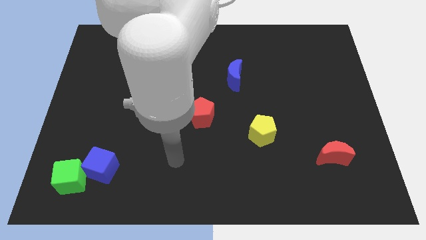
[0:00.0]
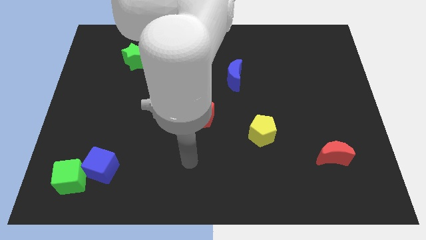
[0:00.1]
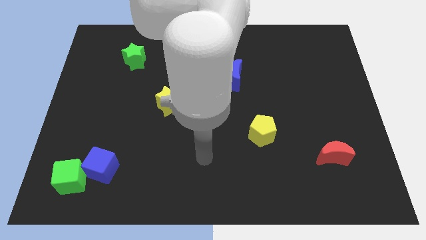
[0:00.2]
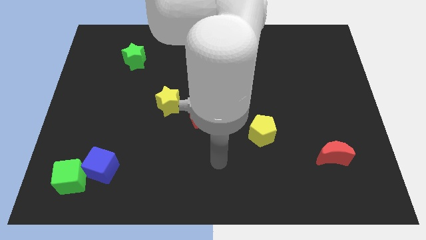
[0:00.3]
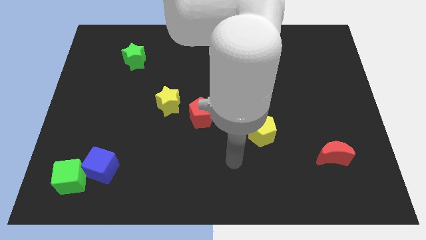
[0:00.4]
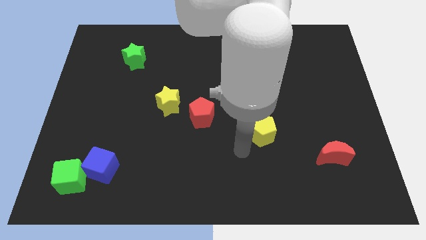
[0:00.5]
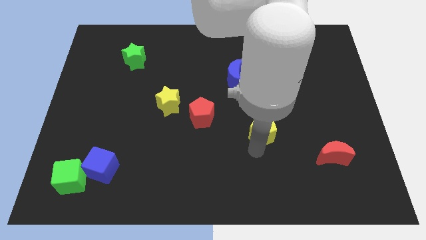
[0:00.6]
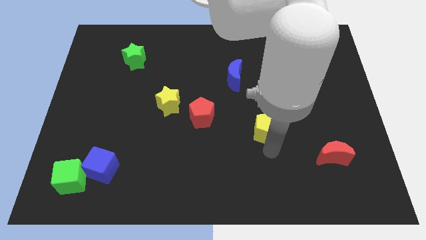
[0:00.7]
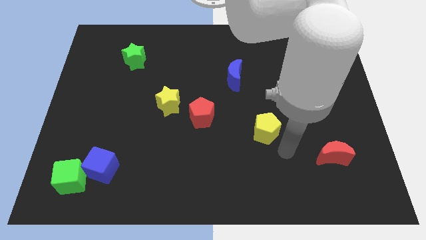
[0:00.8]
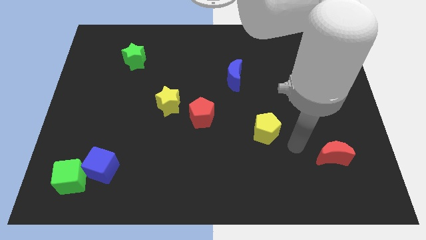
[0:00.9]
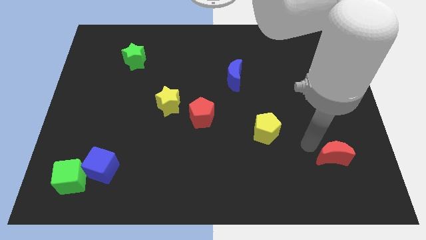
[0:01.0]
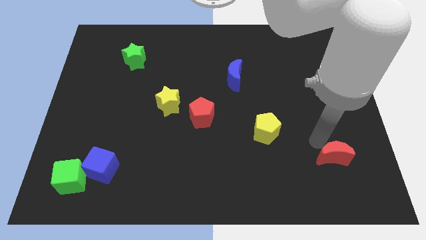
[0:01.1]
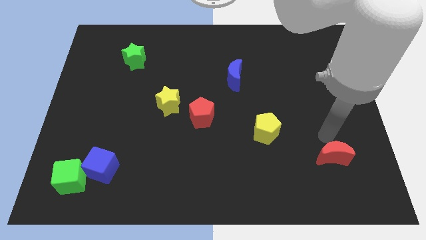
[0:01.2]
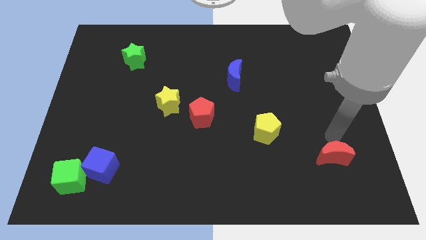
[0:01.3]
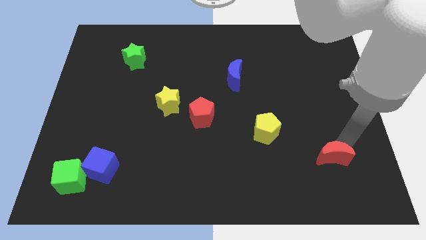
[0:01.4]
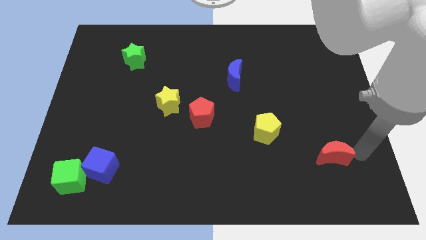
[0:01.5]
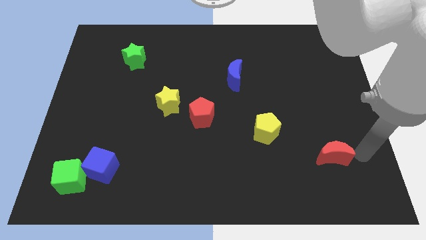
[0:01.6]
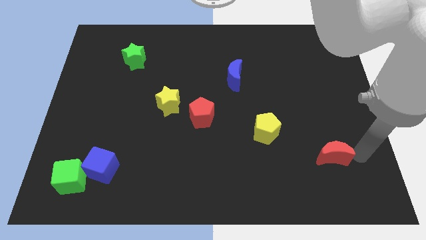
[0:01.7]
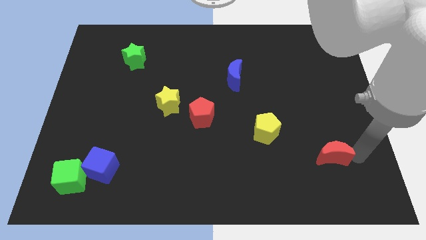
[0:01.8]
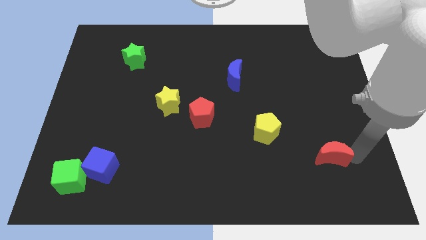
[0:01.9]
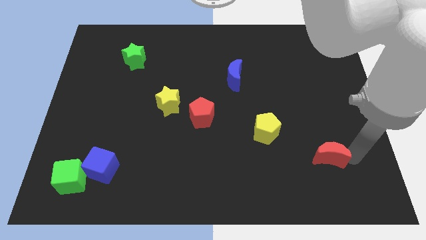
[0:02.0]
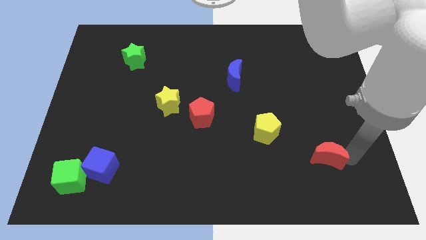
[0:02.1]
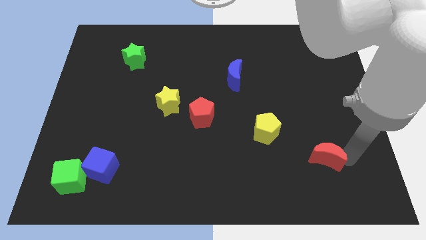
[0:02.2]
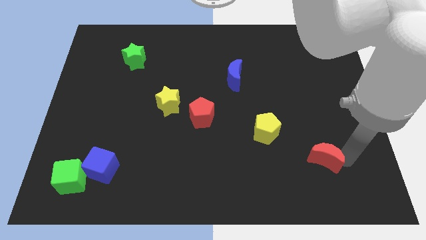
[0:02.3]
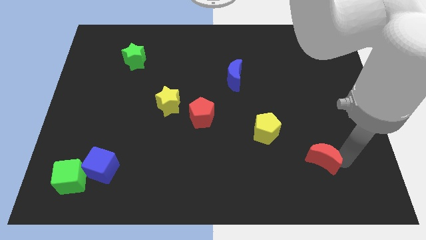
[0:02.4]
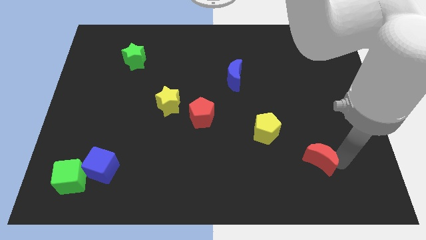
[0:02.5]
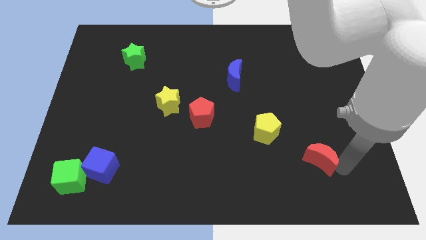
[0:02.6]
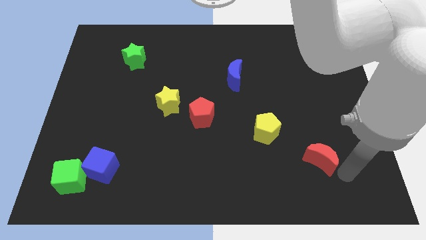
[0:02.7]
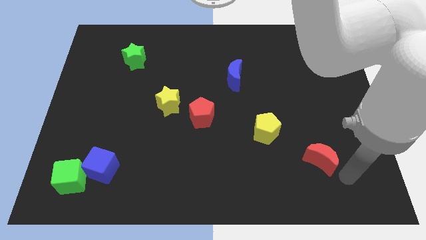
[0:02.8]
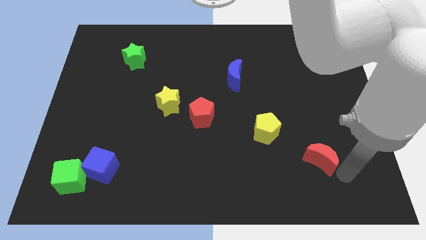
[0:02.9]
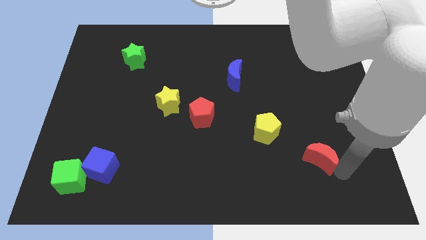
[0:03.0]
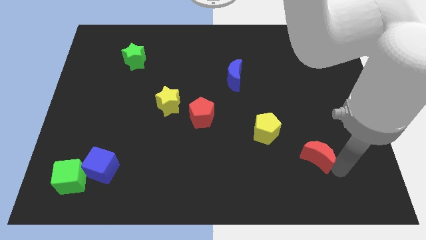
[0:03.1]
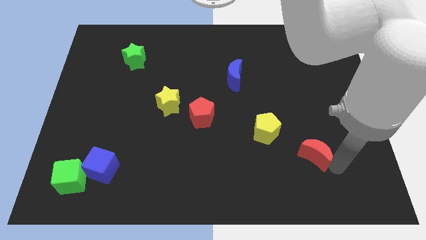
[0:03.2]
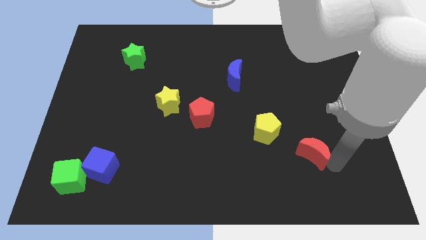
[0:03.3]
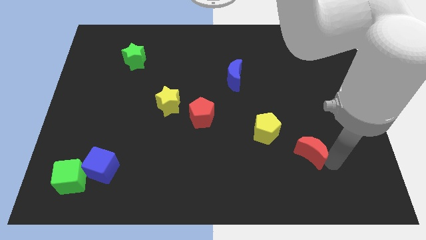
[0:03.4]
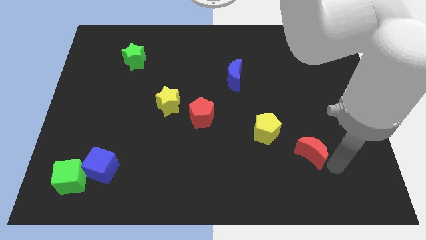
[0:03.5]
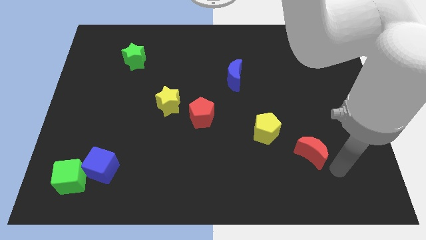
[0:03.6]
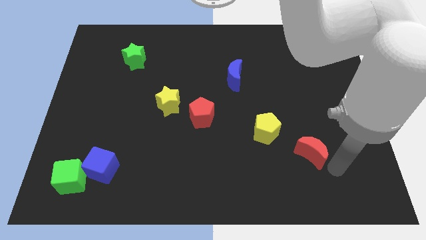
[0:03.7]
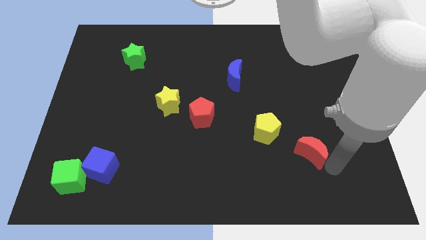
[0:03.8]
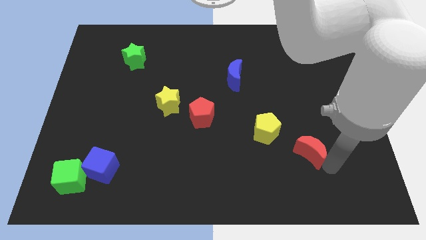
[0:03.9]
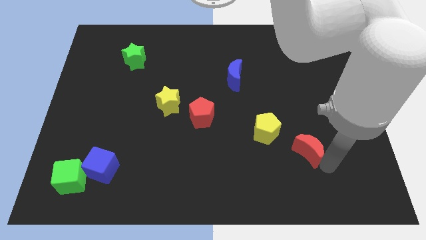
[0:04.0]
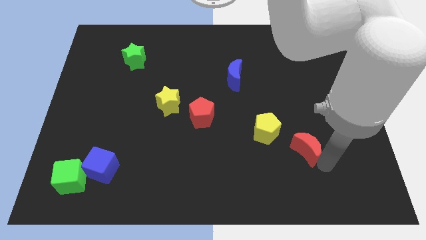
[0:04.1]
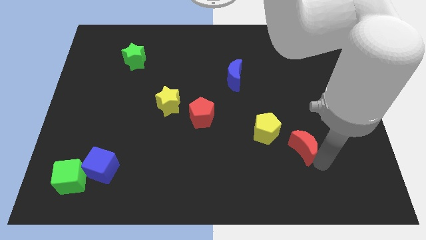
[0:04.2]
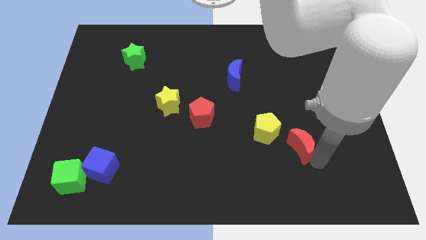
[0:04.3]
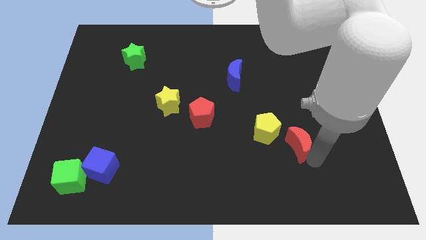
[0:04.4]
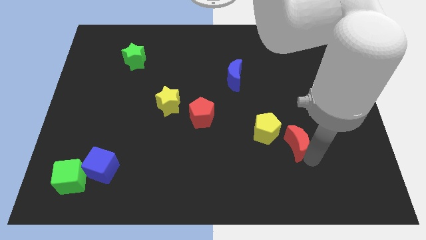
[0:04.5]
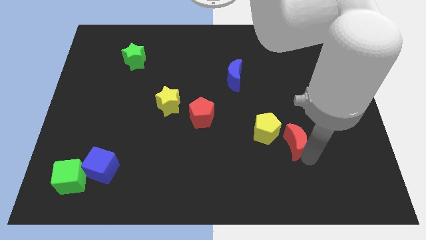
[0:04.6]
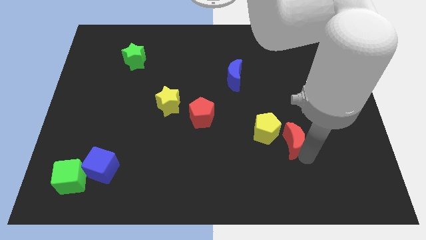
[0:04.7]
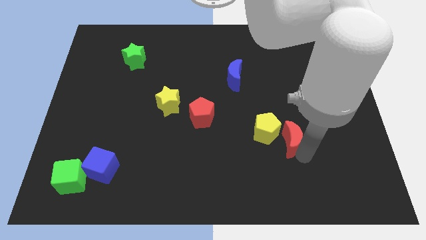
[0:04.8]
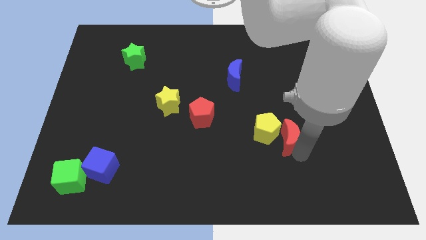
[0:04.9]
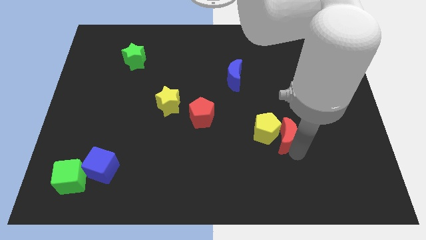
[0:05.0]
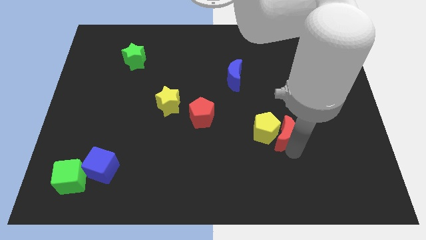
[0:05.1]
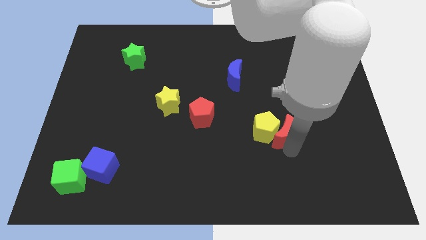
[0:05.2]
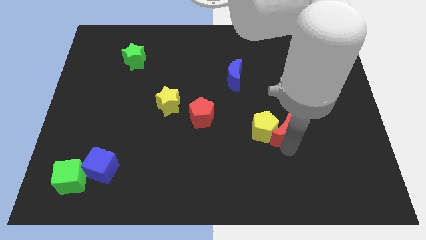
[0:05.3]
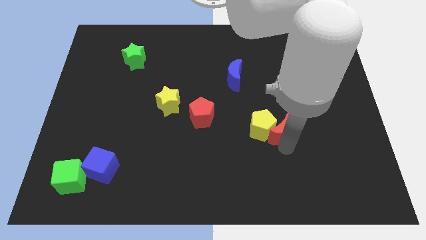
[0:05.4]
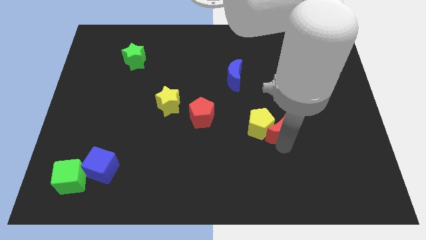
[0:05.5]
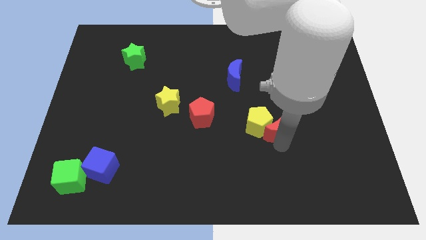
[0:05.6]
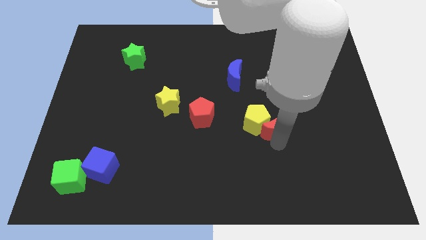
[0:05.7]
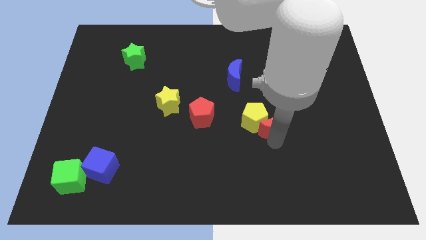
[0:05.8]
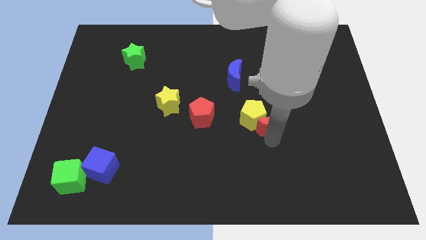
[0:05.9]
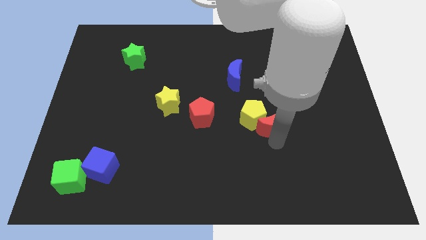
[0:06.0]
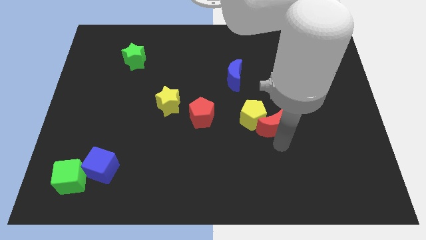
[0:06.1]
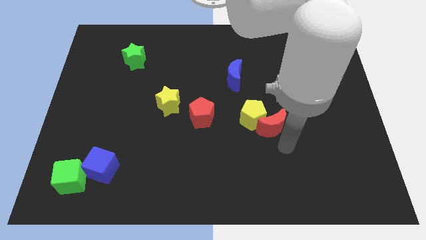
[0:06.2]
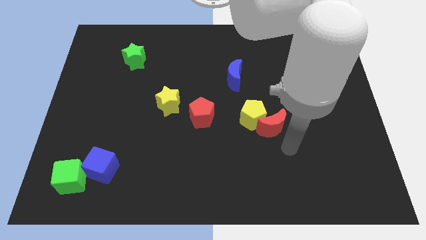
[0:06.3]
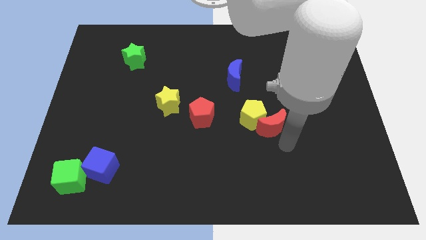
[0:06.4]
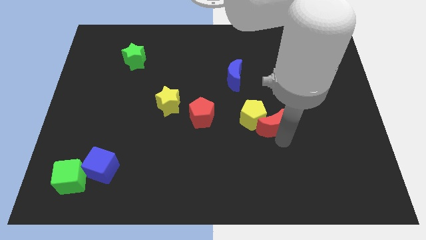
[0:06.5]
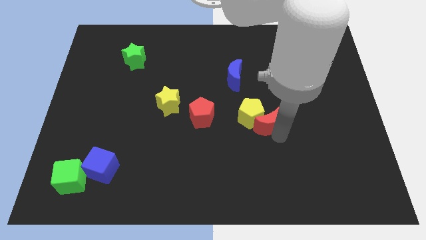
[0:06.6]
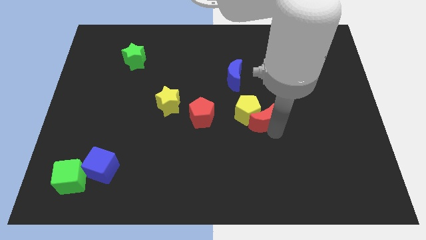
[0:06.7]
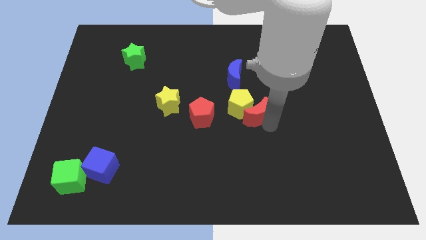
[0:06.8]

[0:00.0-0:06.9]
move the red moon to the center

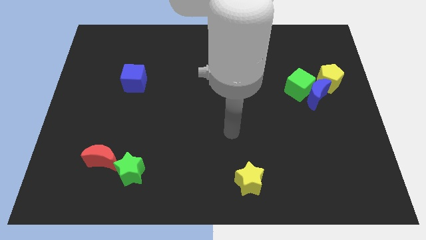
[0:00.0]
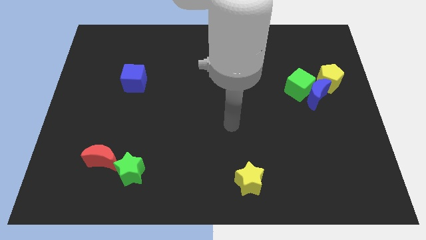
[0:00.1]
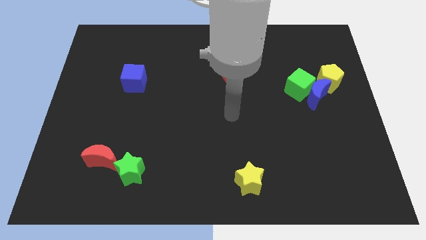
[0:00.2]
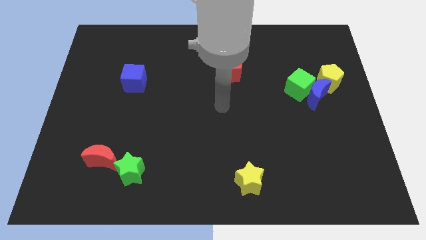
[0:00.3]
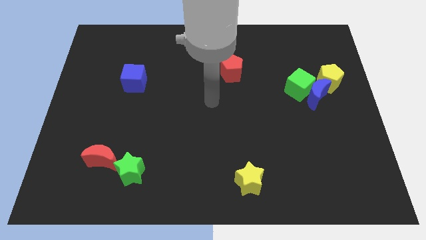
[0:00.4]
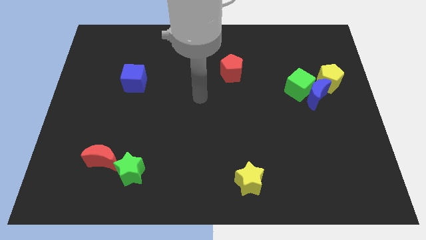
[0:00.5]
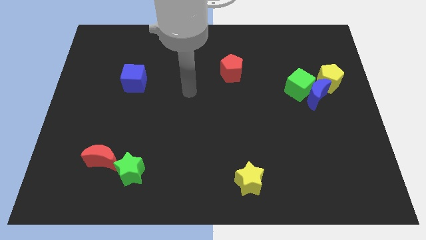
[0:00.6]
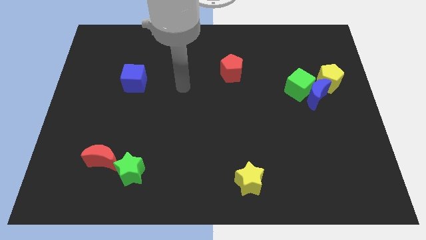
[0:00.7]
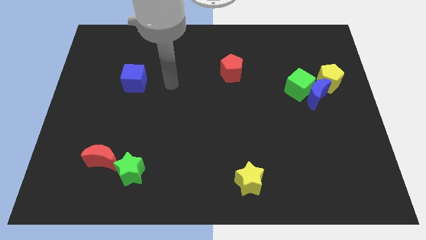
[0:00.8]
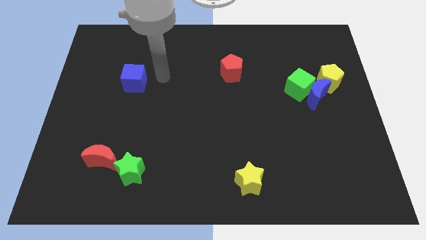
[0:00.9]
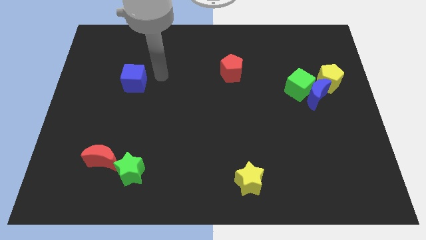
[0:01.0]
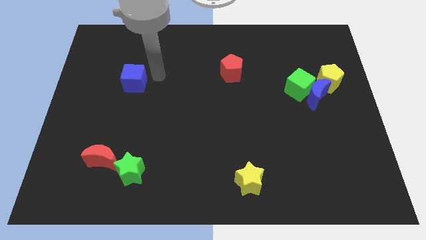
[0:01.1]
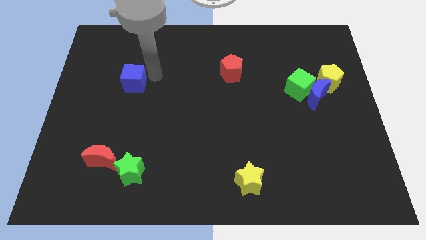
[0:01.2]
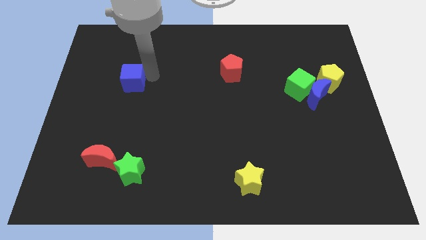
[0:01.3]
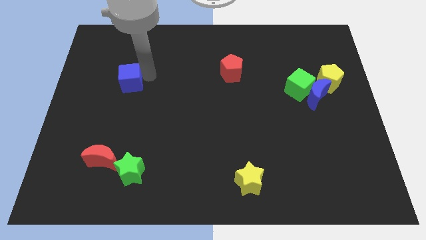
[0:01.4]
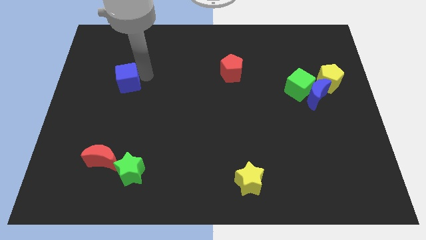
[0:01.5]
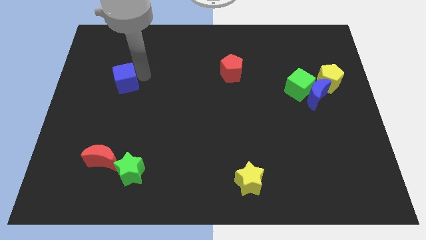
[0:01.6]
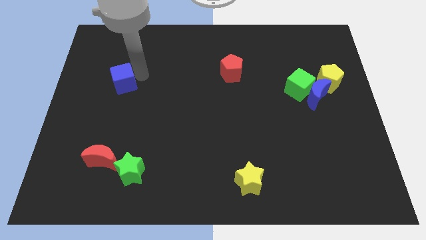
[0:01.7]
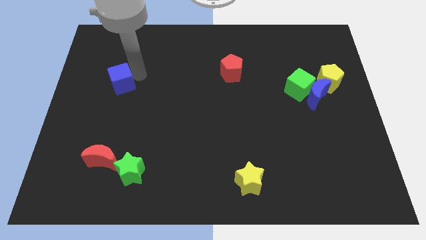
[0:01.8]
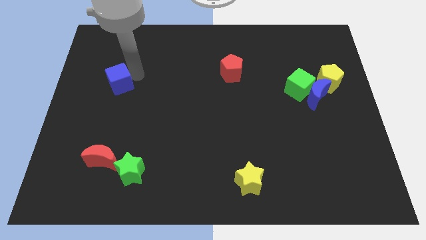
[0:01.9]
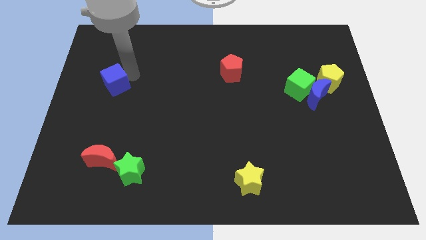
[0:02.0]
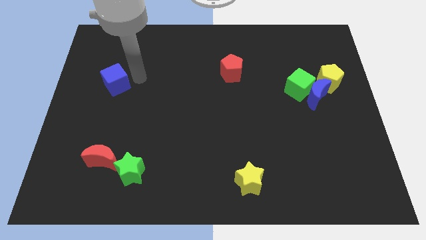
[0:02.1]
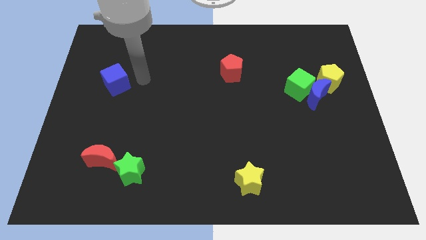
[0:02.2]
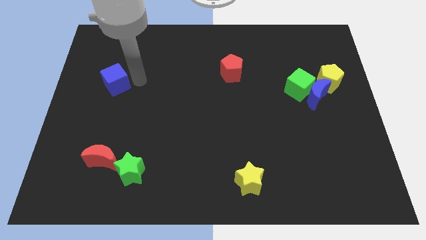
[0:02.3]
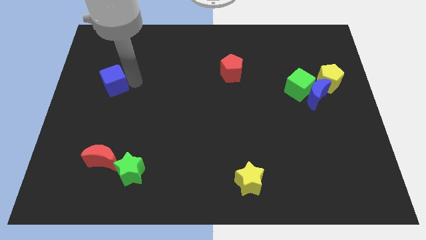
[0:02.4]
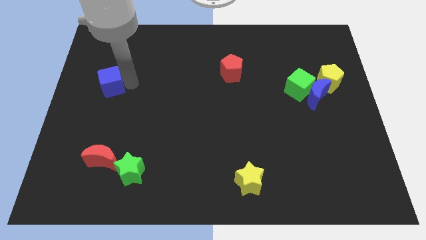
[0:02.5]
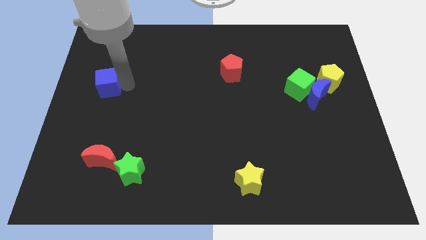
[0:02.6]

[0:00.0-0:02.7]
slide the blue cube to the center left
